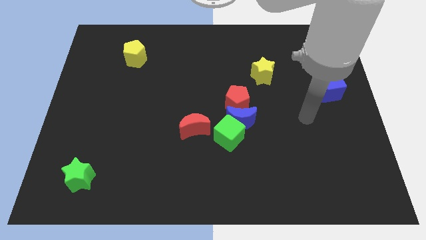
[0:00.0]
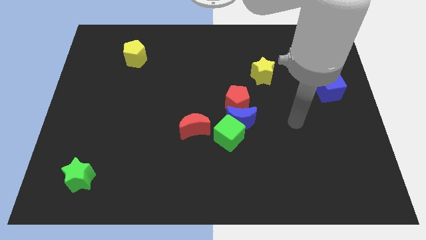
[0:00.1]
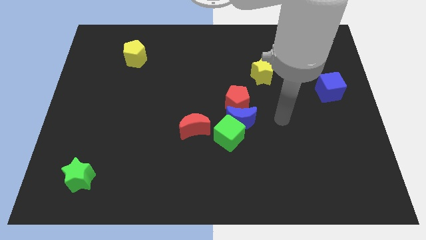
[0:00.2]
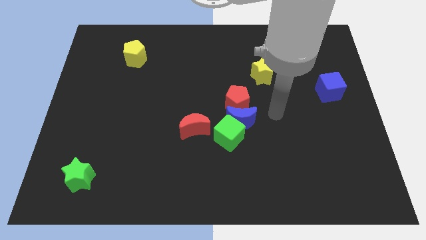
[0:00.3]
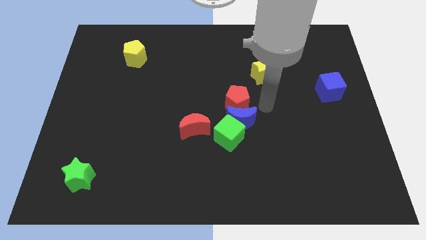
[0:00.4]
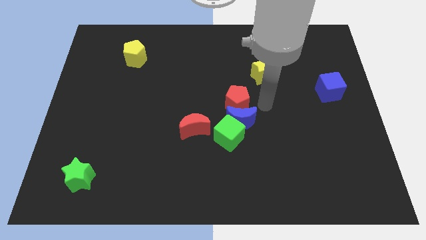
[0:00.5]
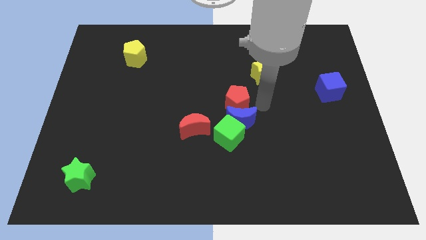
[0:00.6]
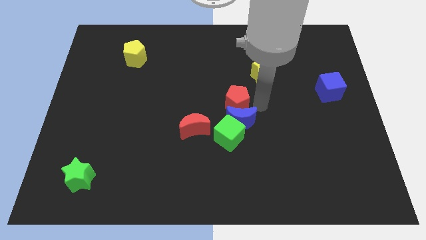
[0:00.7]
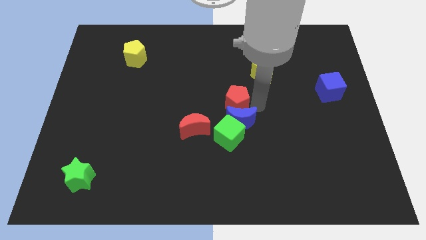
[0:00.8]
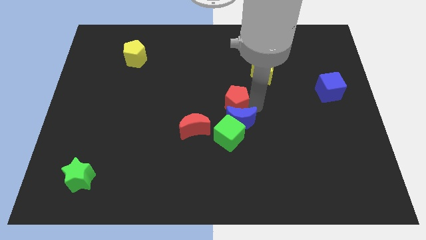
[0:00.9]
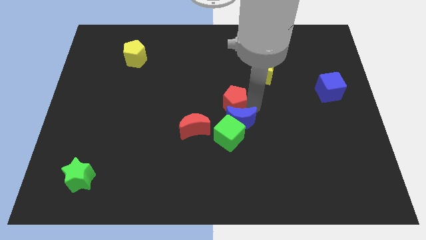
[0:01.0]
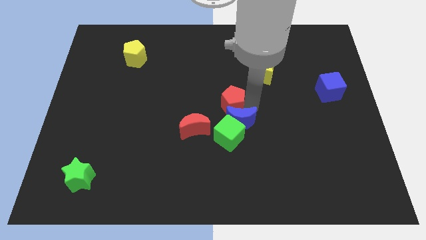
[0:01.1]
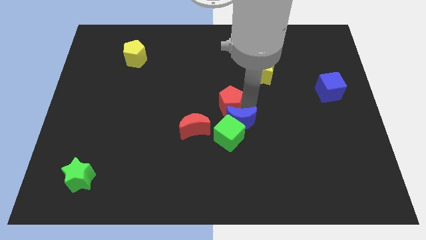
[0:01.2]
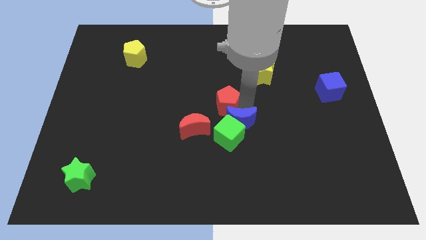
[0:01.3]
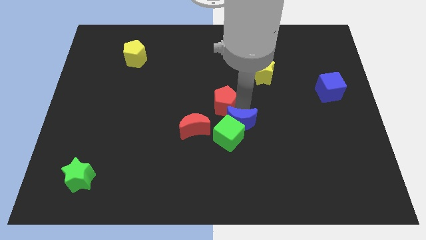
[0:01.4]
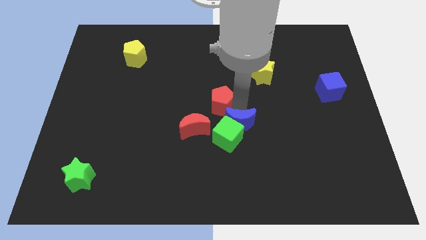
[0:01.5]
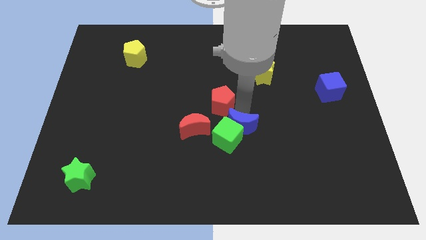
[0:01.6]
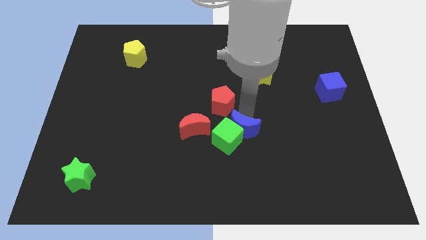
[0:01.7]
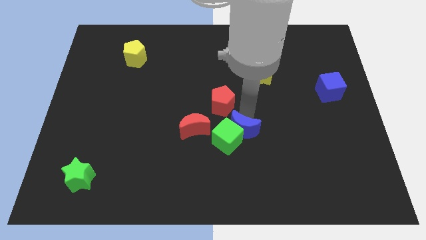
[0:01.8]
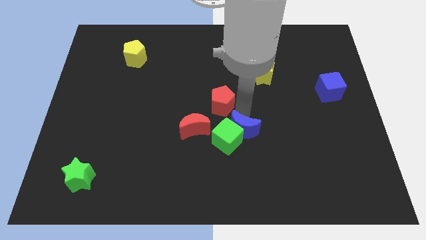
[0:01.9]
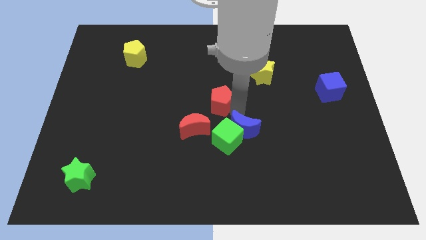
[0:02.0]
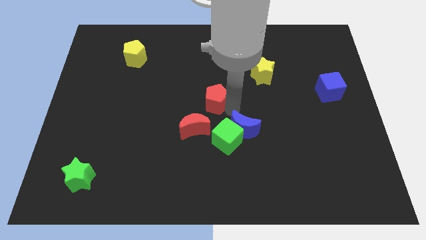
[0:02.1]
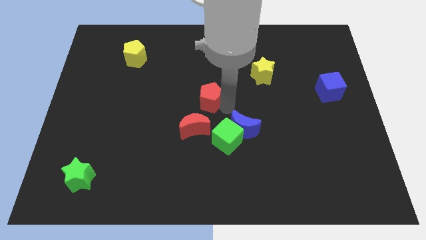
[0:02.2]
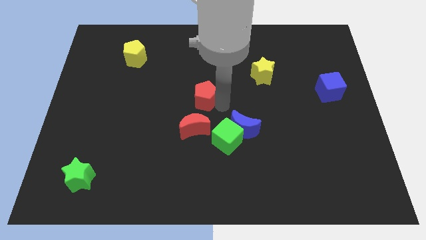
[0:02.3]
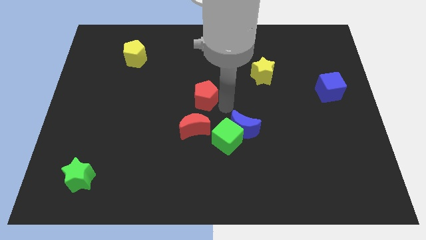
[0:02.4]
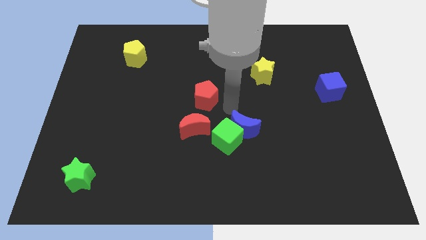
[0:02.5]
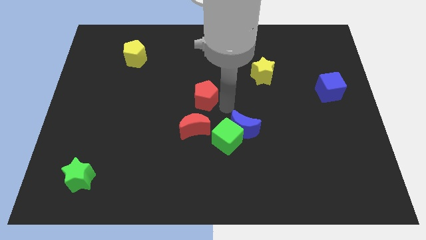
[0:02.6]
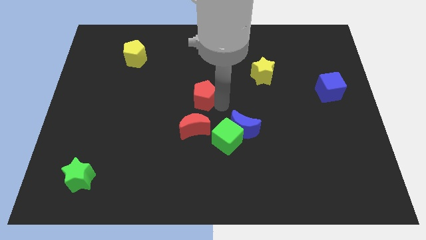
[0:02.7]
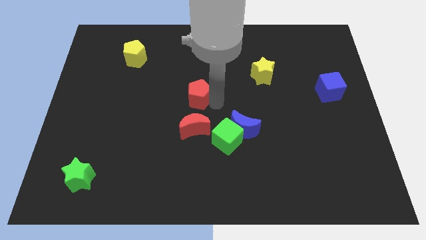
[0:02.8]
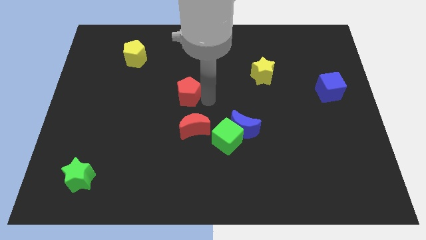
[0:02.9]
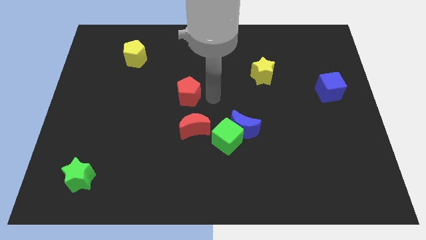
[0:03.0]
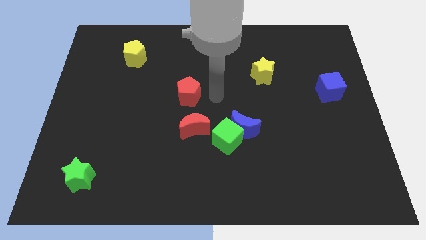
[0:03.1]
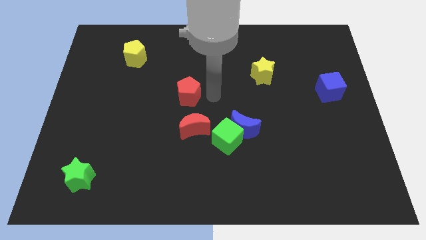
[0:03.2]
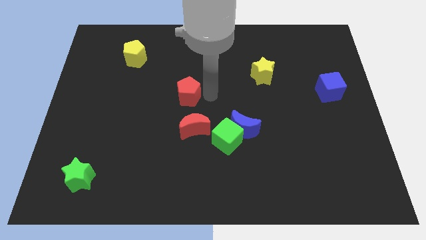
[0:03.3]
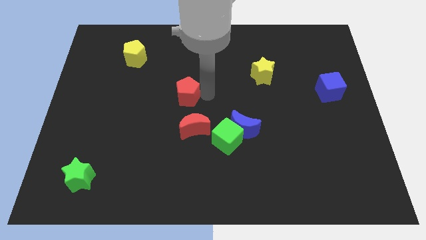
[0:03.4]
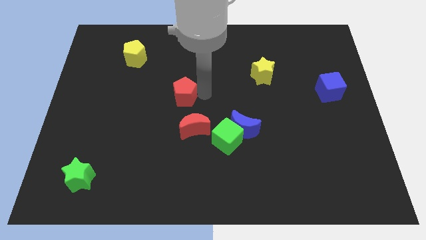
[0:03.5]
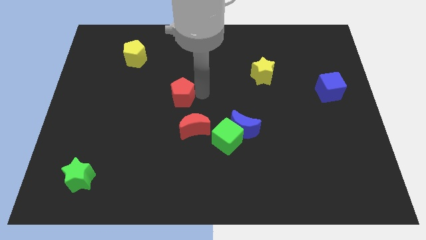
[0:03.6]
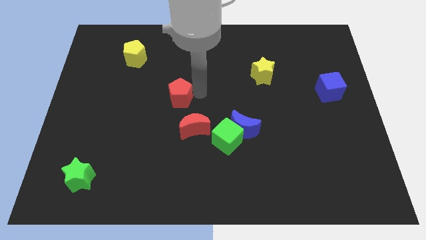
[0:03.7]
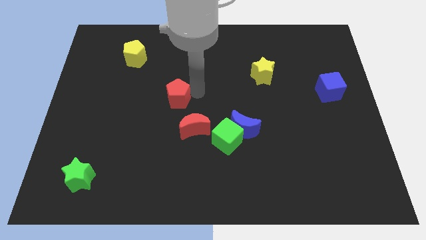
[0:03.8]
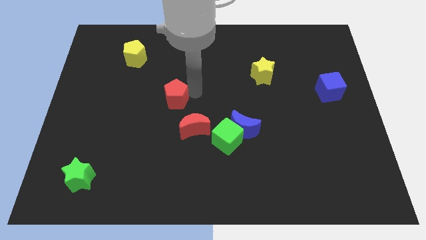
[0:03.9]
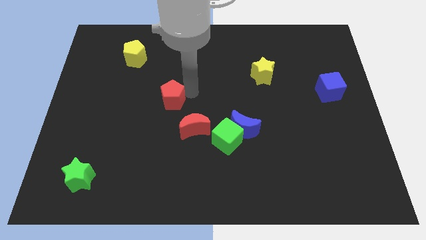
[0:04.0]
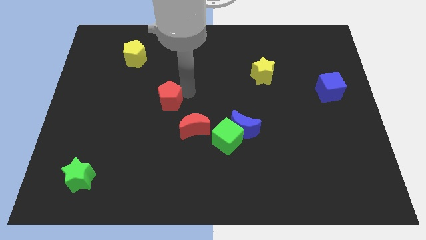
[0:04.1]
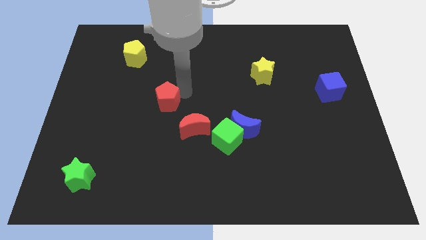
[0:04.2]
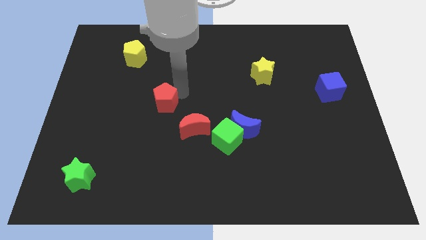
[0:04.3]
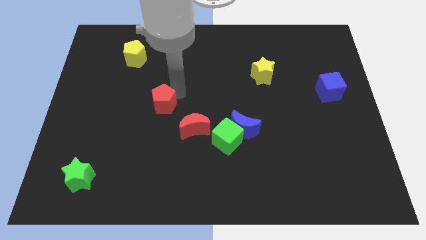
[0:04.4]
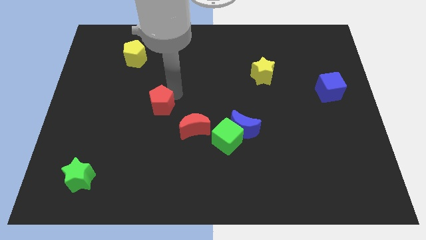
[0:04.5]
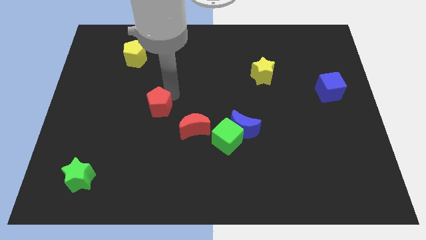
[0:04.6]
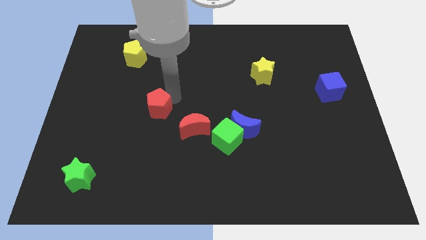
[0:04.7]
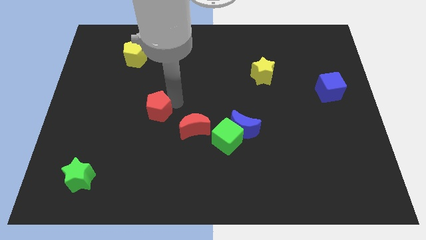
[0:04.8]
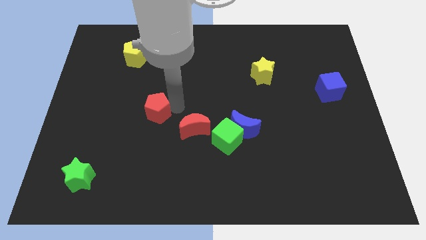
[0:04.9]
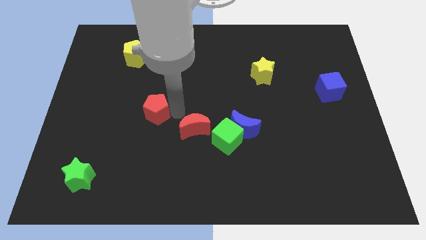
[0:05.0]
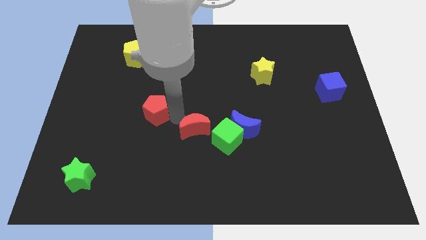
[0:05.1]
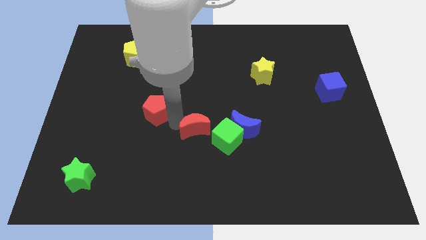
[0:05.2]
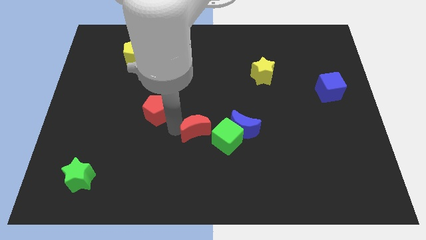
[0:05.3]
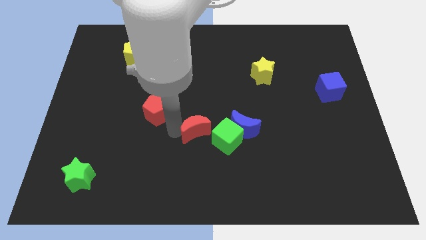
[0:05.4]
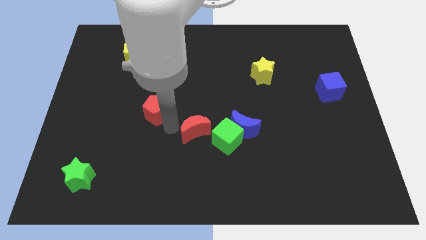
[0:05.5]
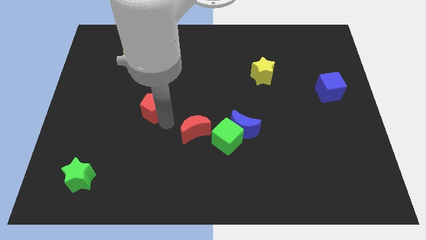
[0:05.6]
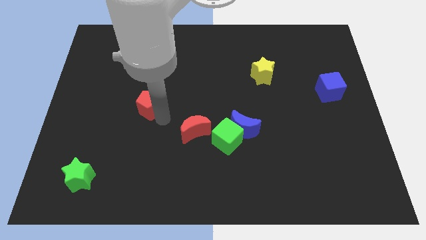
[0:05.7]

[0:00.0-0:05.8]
move the red pentagon to the left

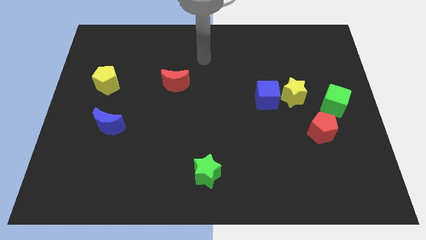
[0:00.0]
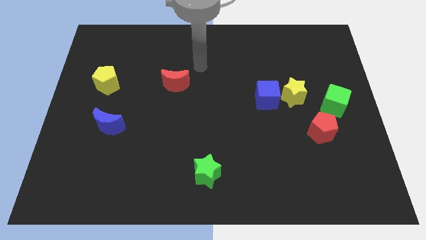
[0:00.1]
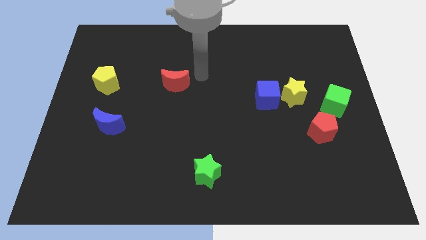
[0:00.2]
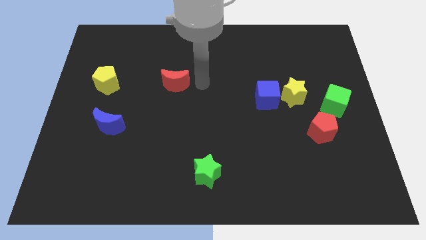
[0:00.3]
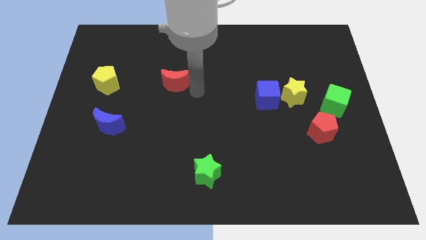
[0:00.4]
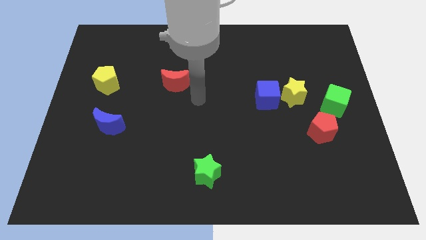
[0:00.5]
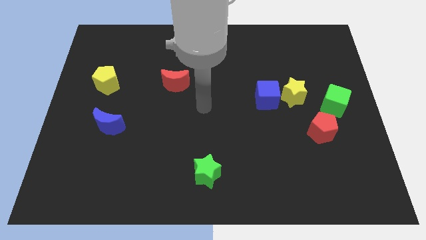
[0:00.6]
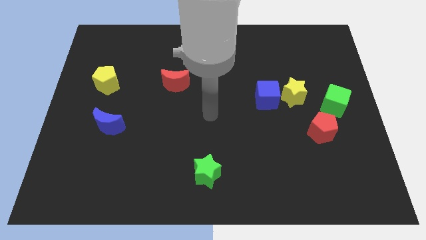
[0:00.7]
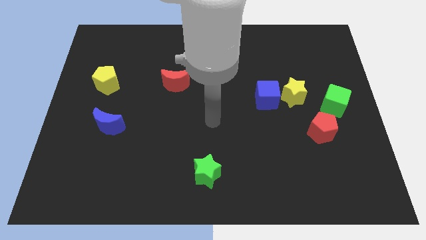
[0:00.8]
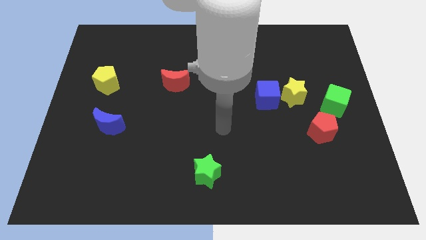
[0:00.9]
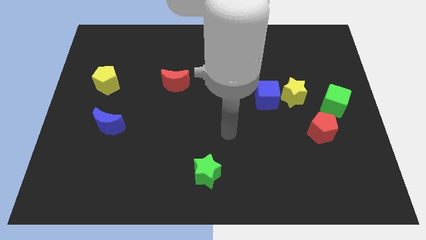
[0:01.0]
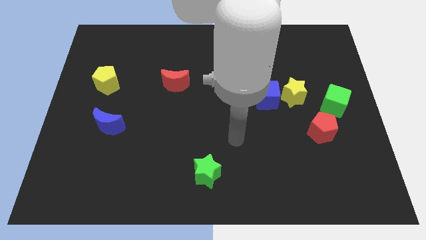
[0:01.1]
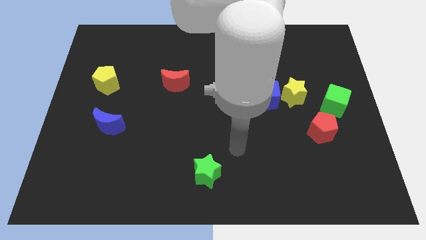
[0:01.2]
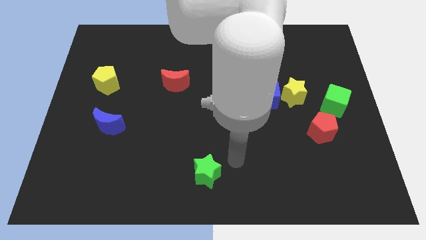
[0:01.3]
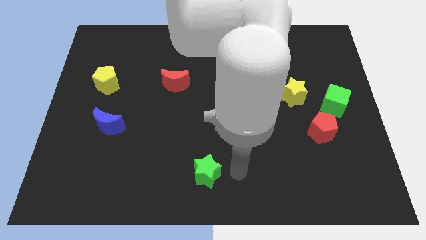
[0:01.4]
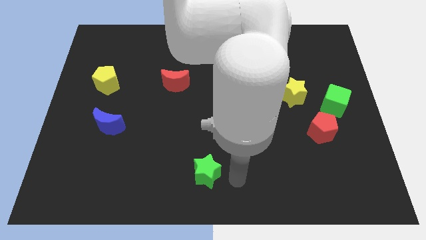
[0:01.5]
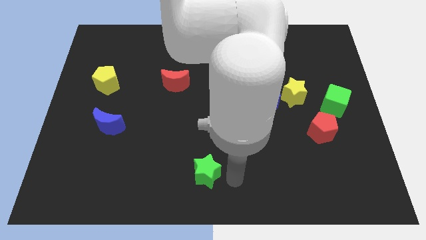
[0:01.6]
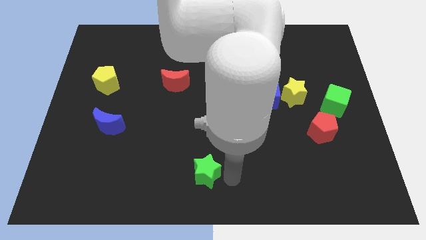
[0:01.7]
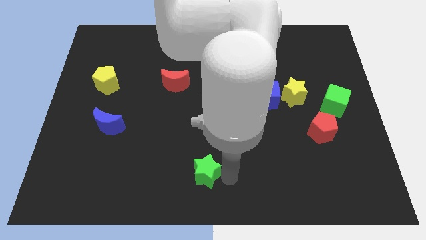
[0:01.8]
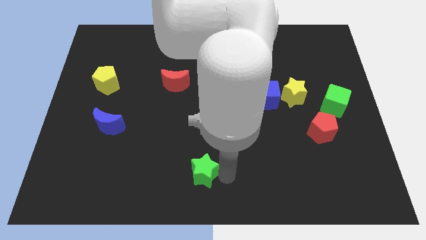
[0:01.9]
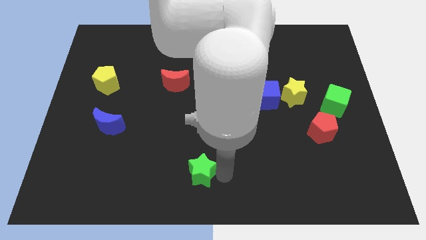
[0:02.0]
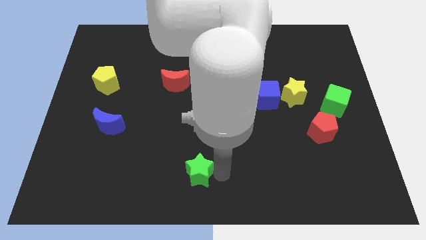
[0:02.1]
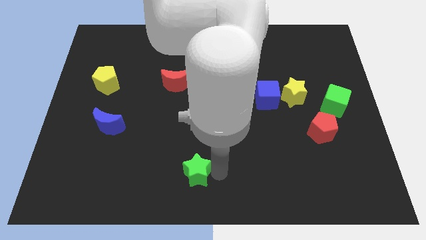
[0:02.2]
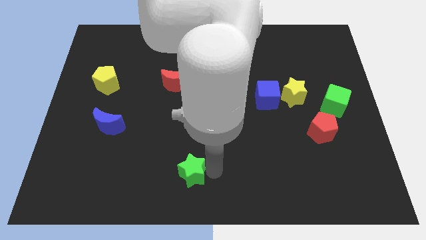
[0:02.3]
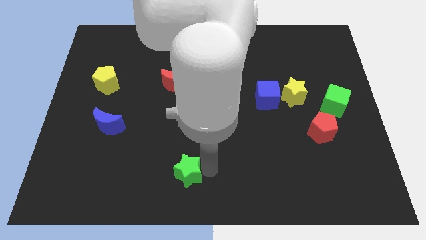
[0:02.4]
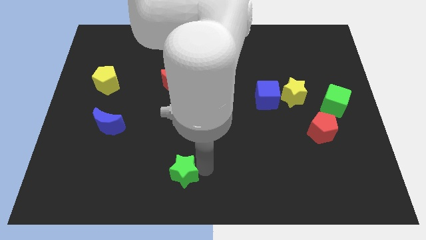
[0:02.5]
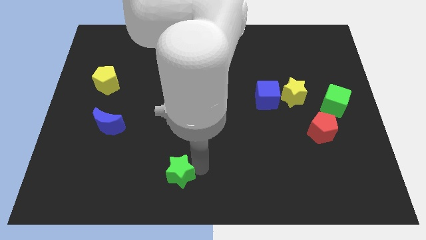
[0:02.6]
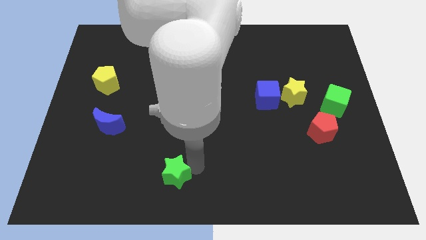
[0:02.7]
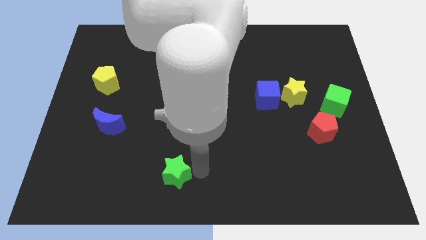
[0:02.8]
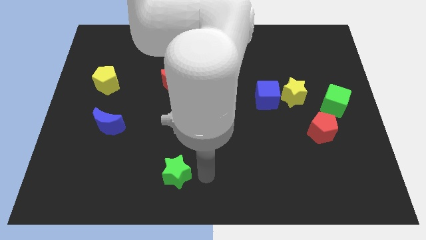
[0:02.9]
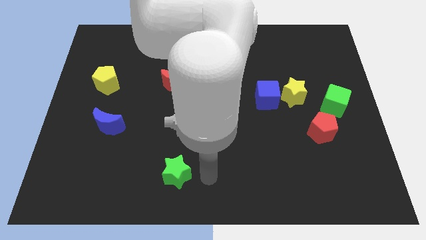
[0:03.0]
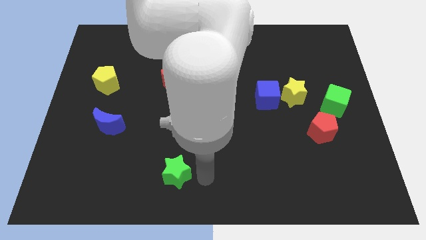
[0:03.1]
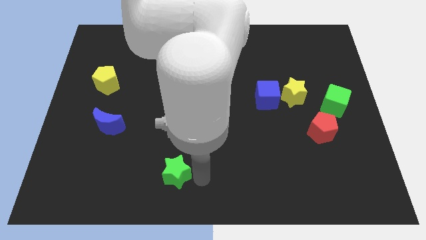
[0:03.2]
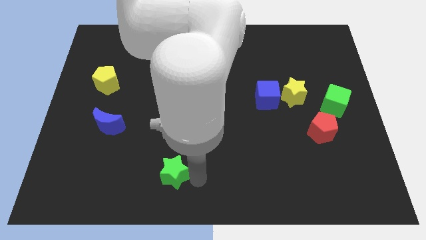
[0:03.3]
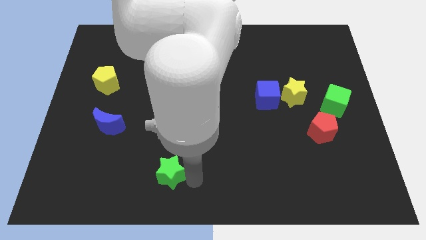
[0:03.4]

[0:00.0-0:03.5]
slide the green star left a little bit
